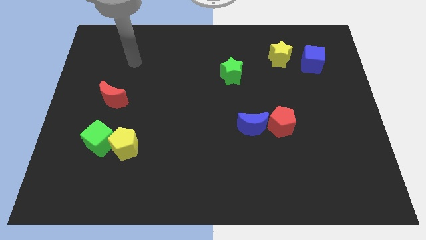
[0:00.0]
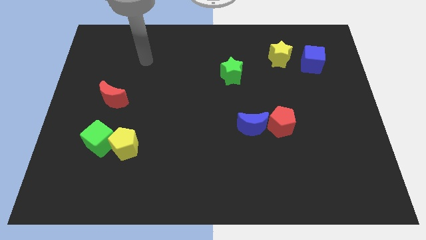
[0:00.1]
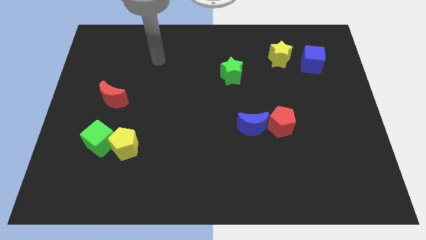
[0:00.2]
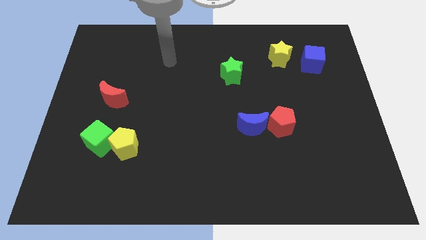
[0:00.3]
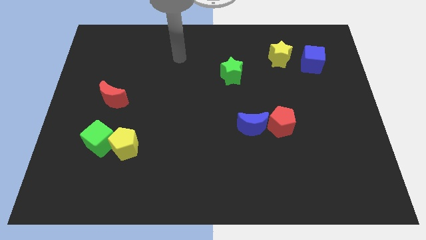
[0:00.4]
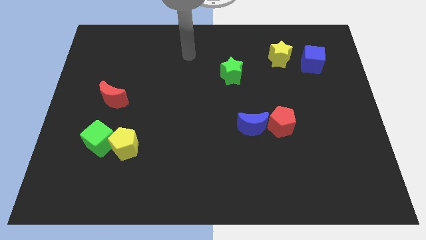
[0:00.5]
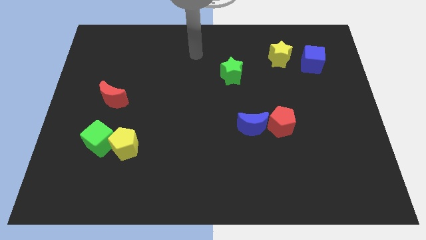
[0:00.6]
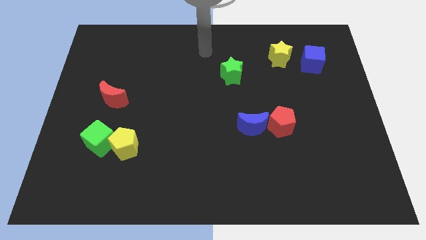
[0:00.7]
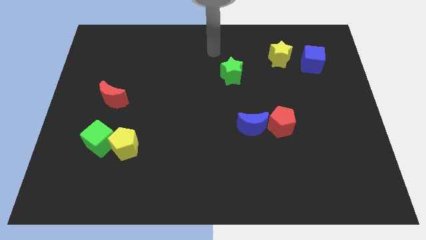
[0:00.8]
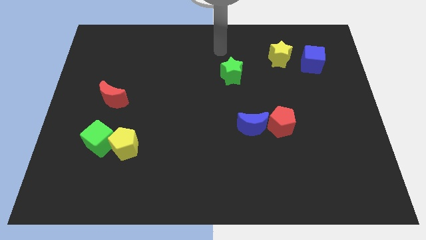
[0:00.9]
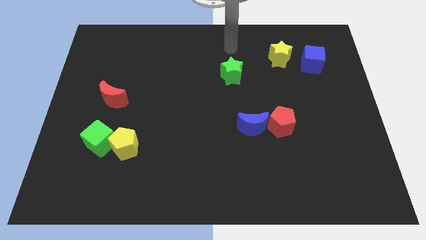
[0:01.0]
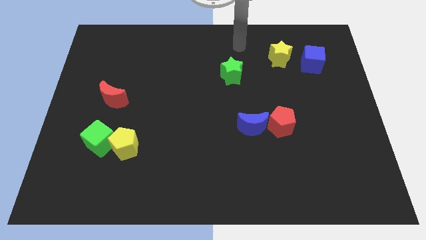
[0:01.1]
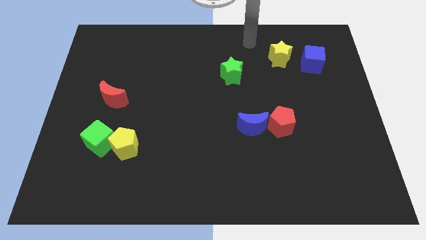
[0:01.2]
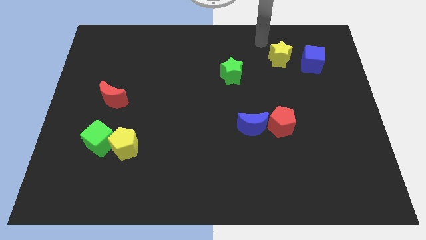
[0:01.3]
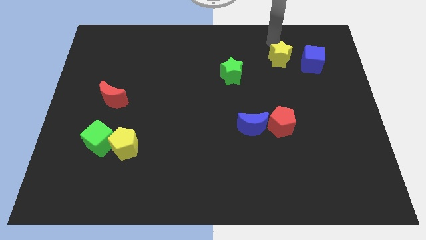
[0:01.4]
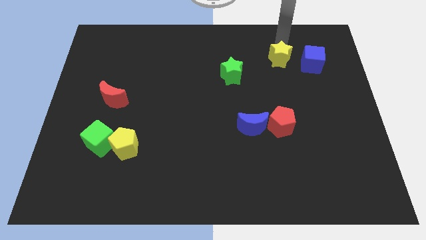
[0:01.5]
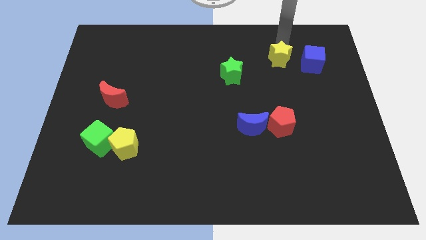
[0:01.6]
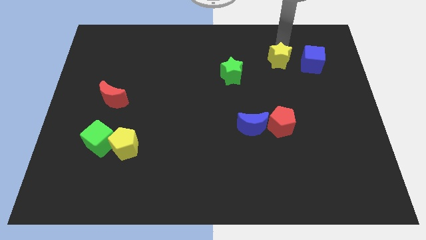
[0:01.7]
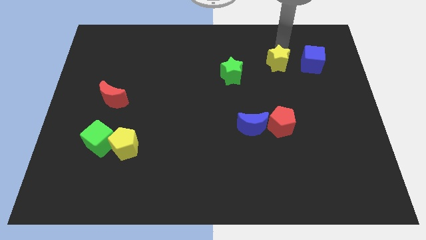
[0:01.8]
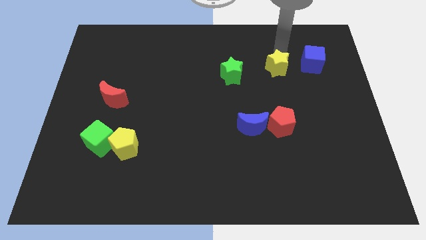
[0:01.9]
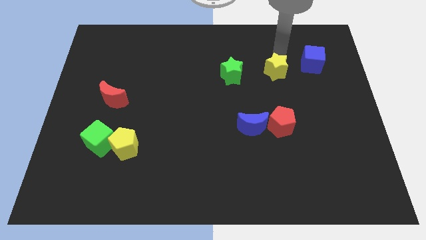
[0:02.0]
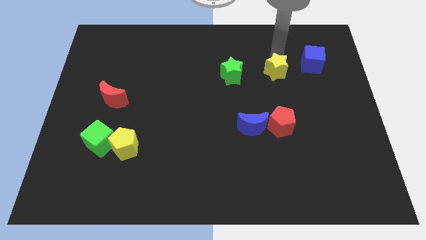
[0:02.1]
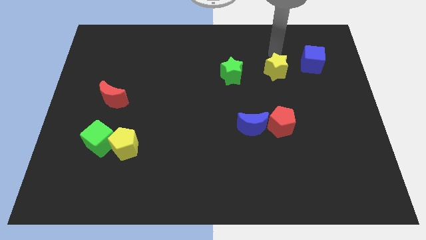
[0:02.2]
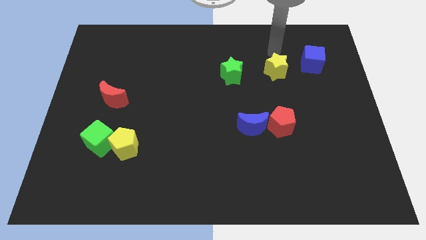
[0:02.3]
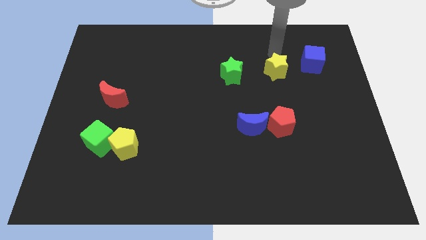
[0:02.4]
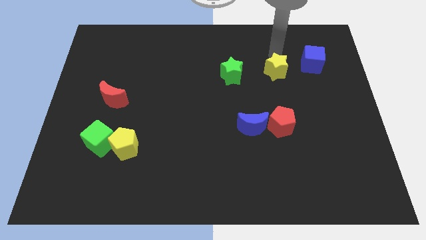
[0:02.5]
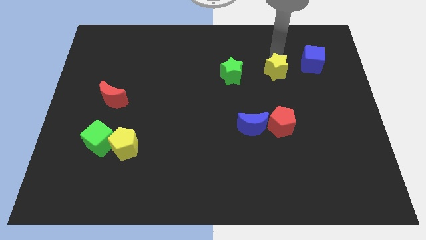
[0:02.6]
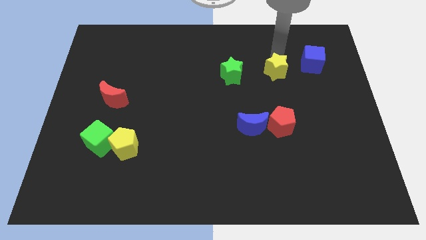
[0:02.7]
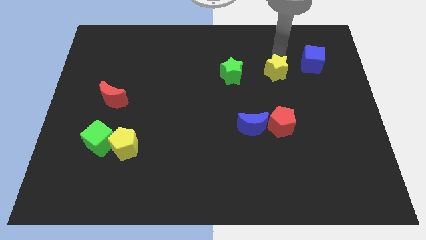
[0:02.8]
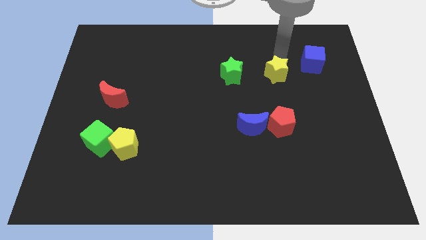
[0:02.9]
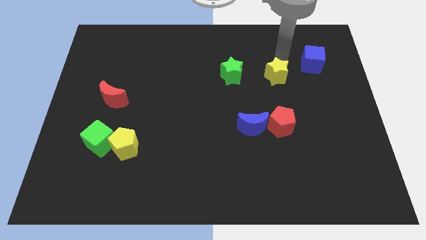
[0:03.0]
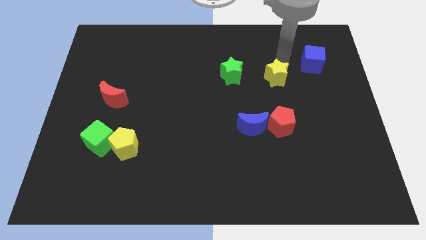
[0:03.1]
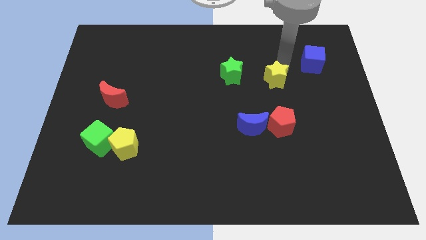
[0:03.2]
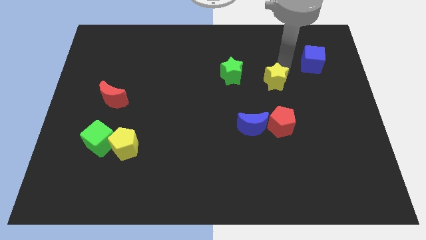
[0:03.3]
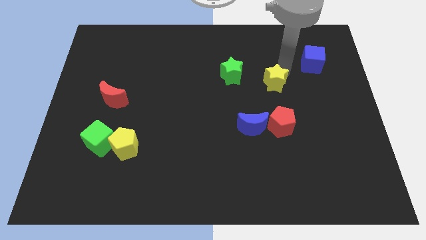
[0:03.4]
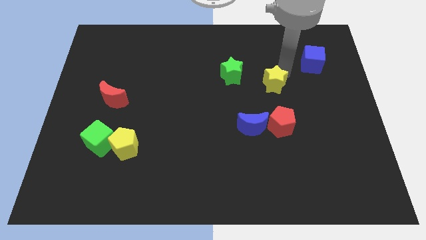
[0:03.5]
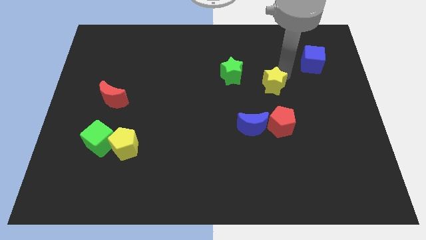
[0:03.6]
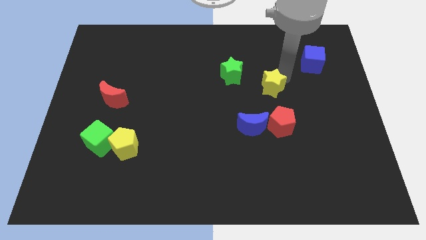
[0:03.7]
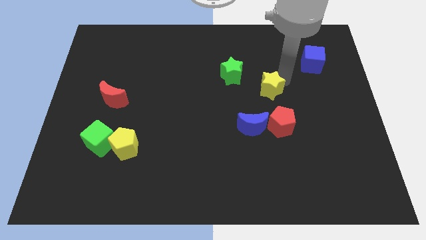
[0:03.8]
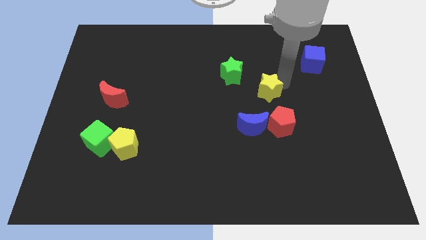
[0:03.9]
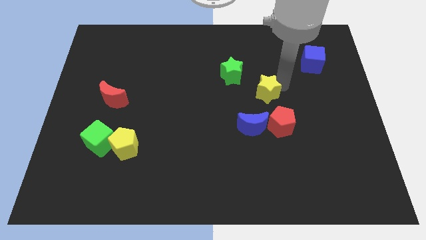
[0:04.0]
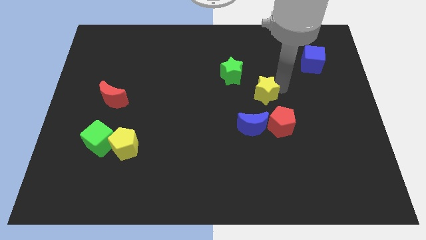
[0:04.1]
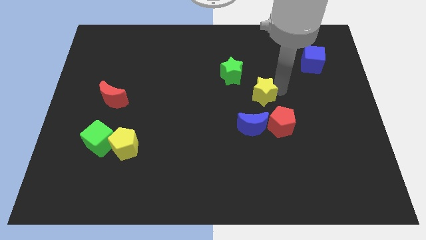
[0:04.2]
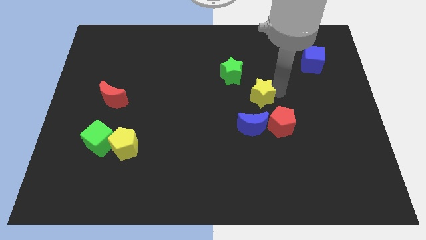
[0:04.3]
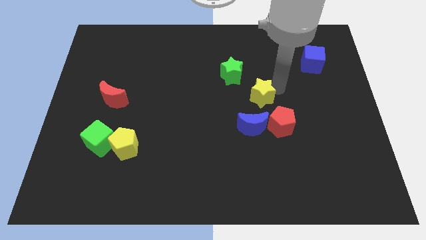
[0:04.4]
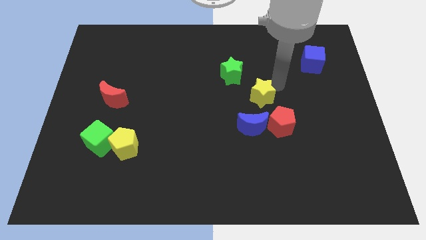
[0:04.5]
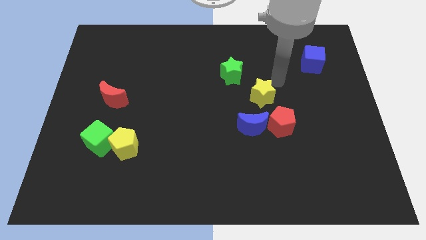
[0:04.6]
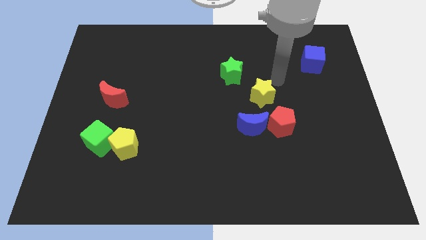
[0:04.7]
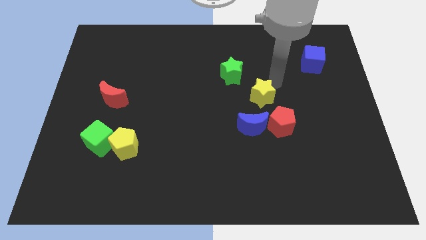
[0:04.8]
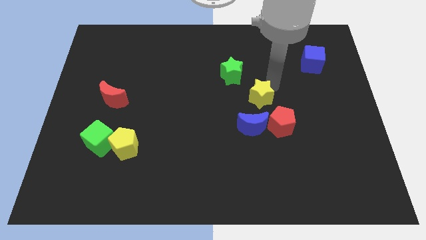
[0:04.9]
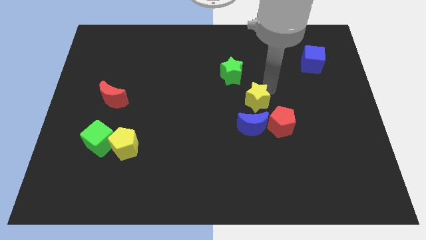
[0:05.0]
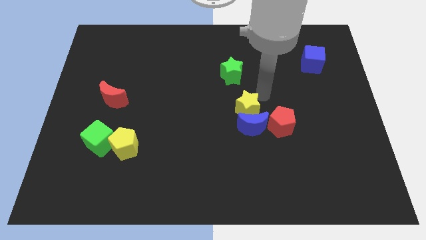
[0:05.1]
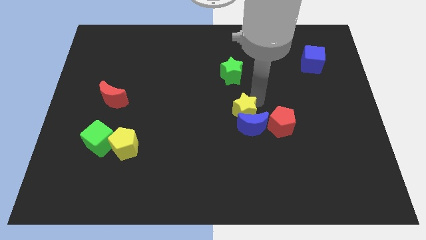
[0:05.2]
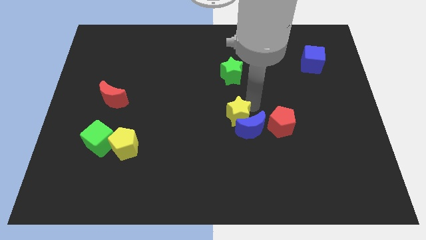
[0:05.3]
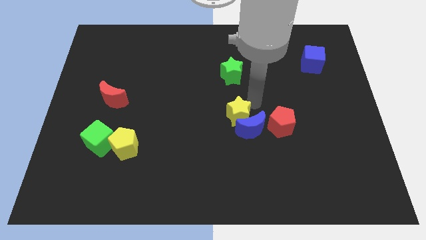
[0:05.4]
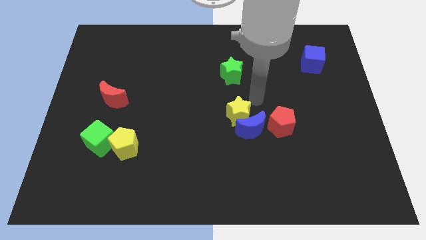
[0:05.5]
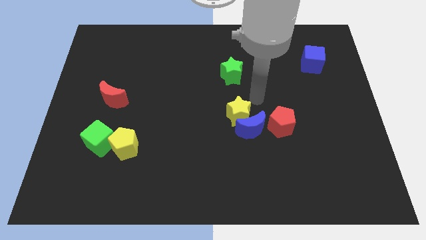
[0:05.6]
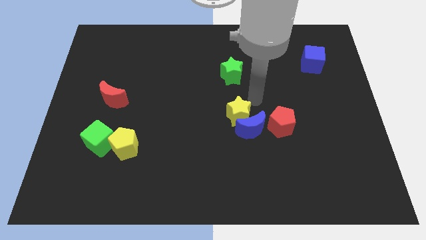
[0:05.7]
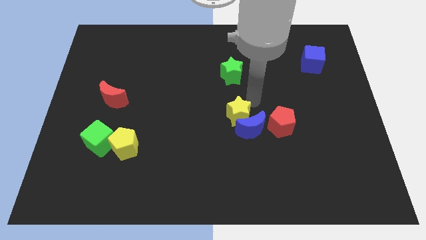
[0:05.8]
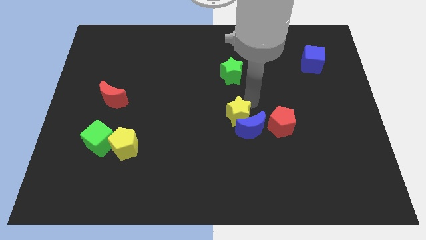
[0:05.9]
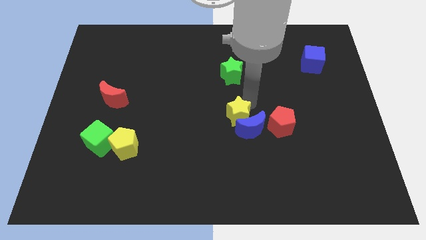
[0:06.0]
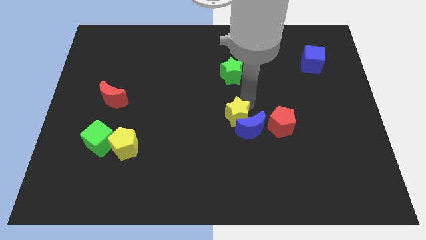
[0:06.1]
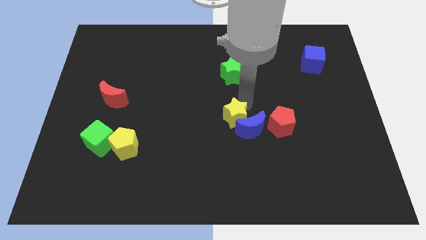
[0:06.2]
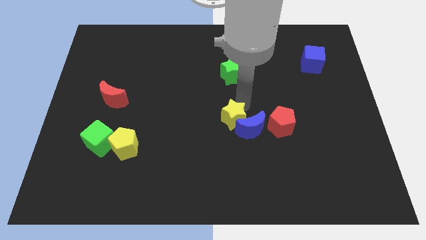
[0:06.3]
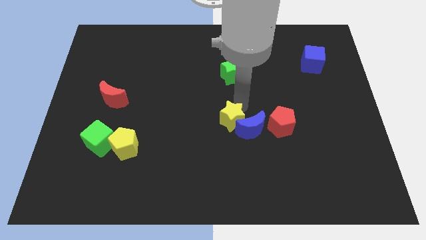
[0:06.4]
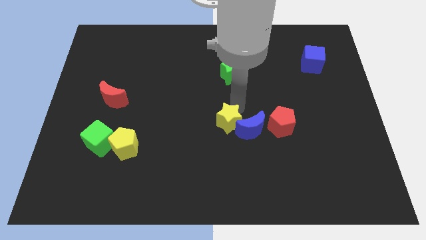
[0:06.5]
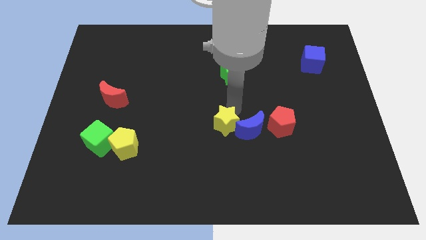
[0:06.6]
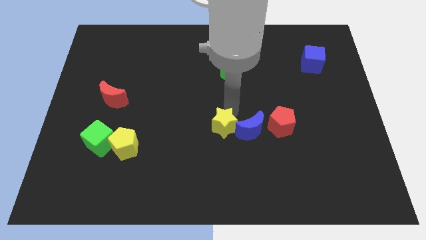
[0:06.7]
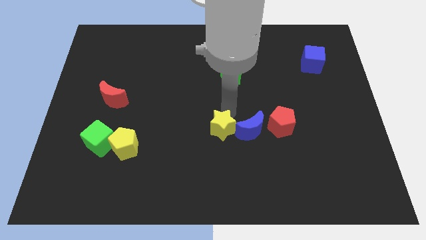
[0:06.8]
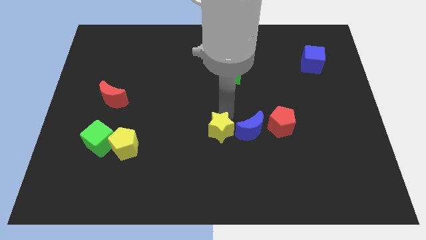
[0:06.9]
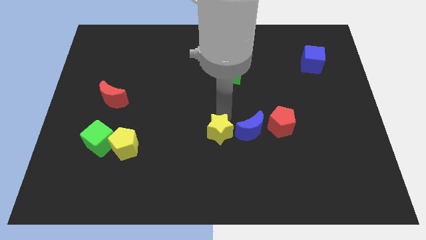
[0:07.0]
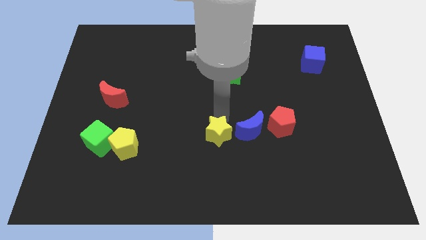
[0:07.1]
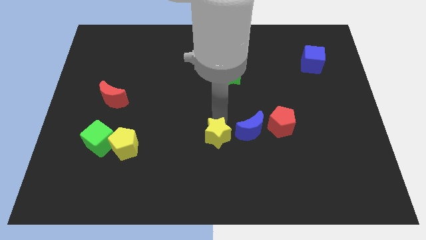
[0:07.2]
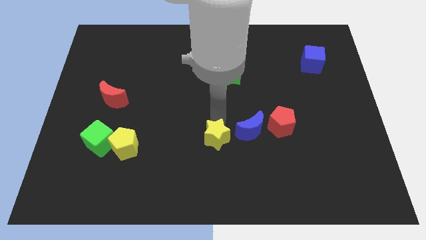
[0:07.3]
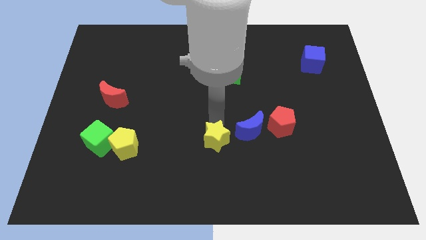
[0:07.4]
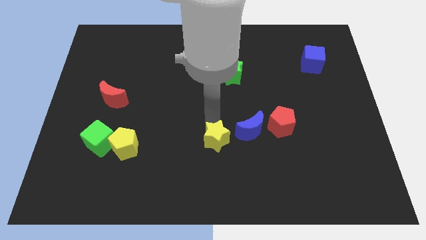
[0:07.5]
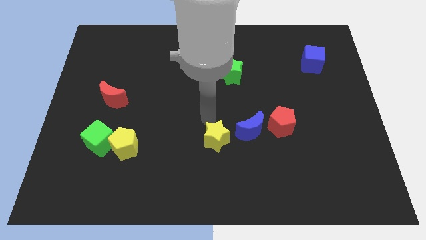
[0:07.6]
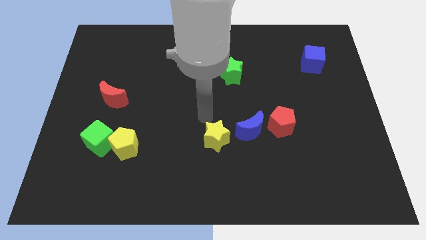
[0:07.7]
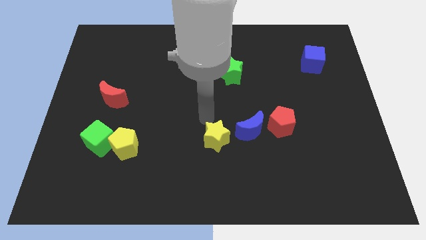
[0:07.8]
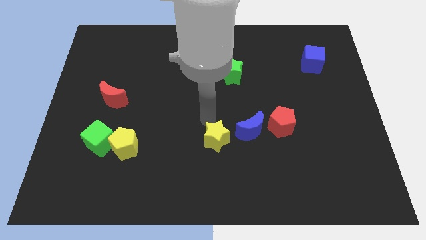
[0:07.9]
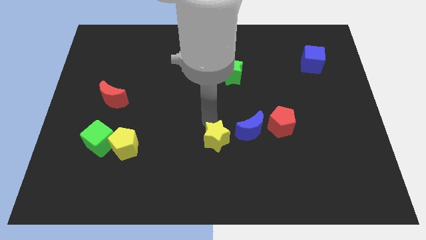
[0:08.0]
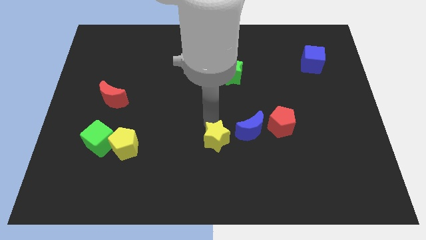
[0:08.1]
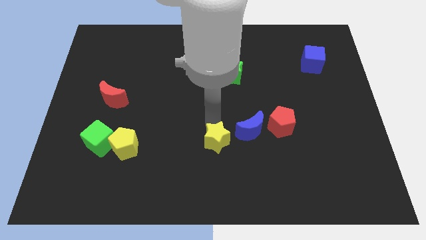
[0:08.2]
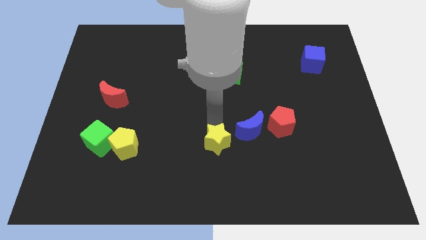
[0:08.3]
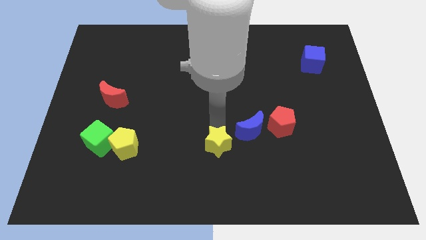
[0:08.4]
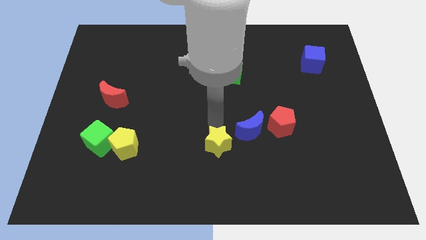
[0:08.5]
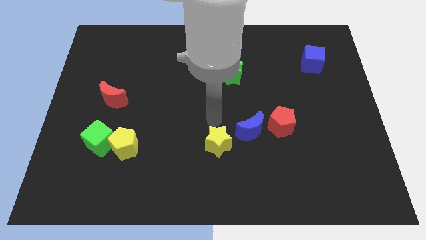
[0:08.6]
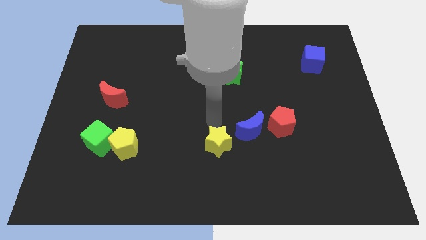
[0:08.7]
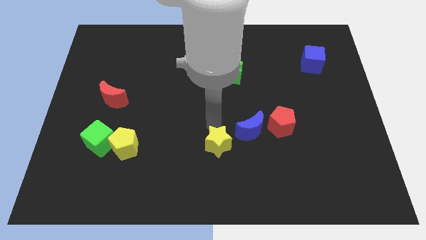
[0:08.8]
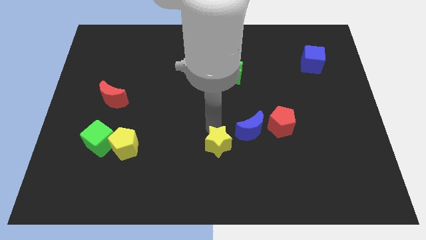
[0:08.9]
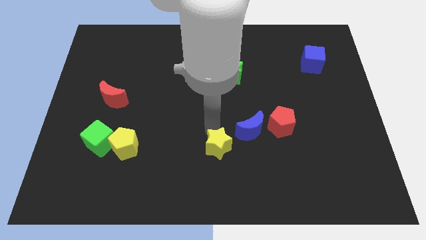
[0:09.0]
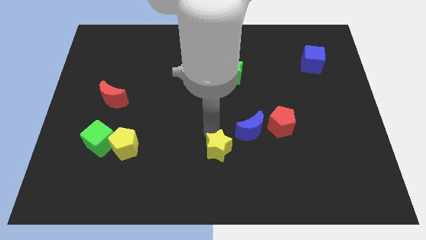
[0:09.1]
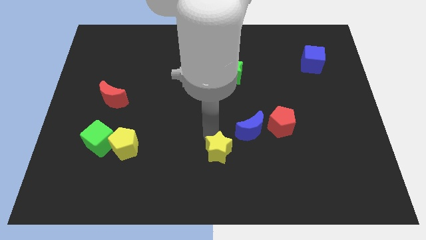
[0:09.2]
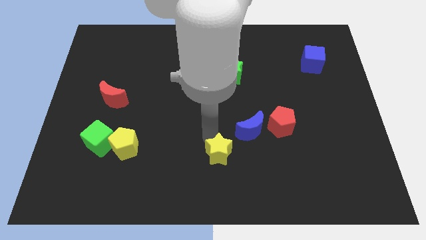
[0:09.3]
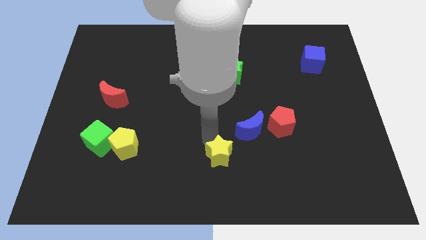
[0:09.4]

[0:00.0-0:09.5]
push the yellow star to the bottom
